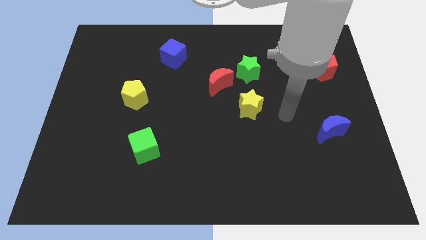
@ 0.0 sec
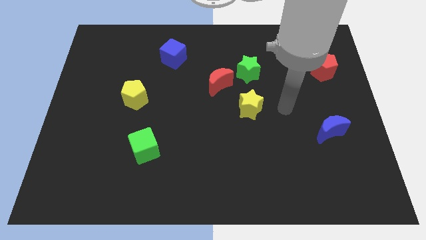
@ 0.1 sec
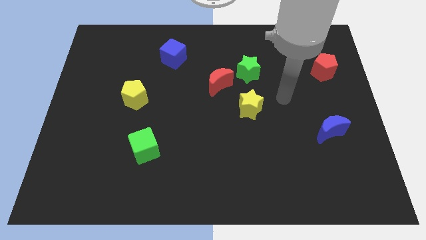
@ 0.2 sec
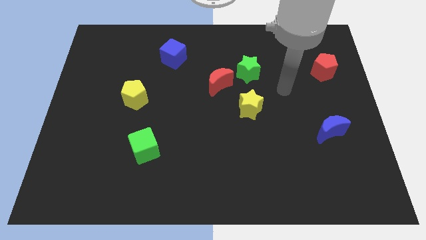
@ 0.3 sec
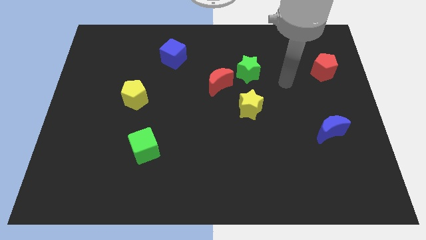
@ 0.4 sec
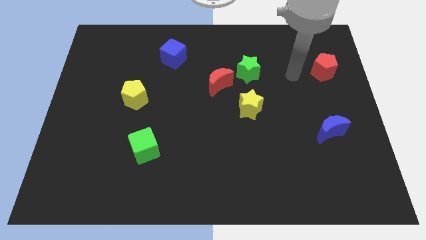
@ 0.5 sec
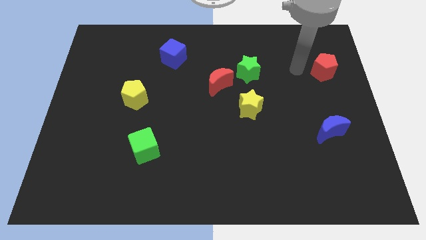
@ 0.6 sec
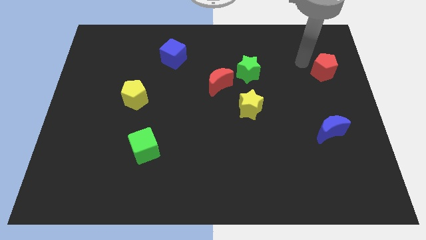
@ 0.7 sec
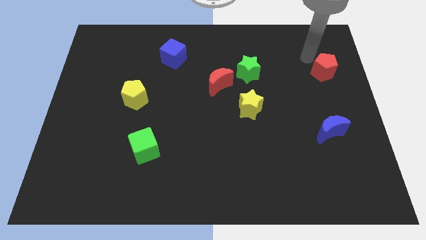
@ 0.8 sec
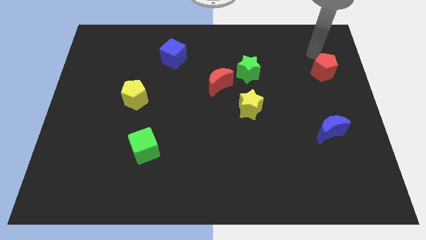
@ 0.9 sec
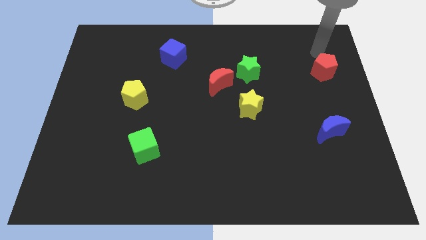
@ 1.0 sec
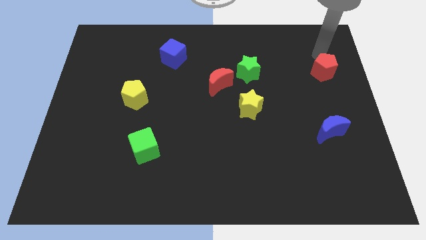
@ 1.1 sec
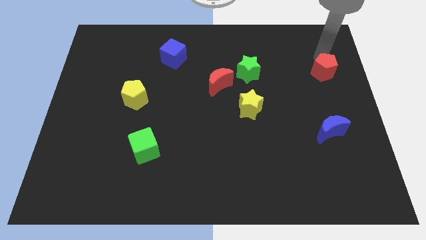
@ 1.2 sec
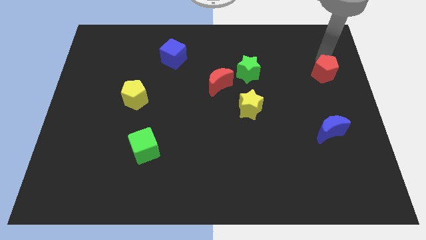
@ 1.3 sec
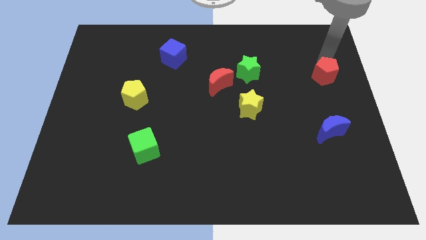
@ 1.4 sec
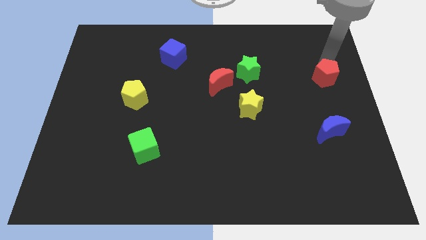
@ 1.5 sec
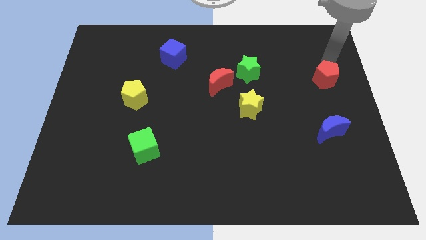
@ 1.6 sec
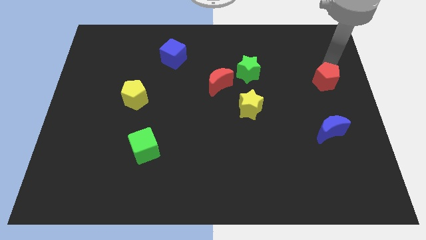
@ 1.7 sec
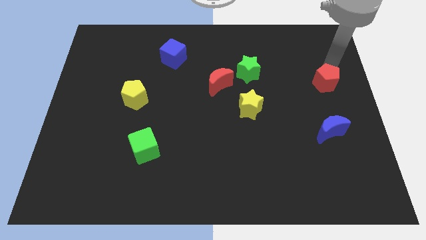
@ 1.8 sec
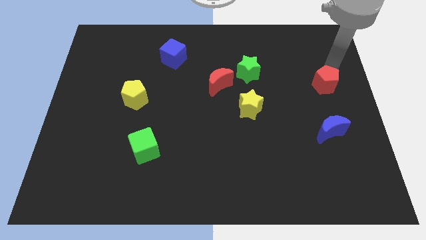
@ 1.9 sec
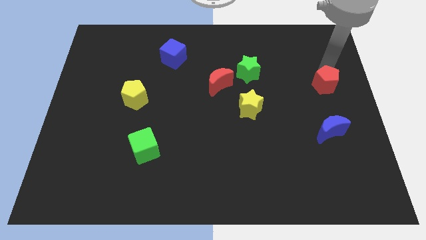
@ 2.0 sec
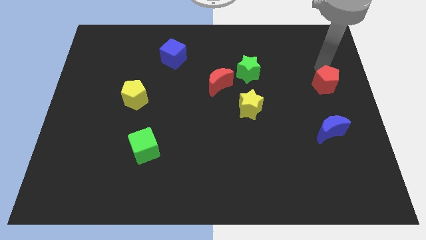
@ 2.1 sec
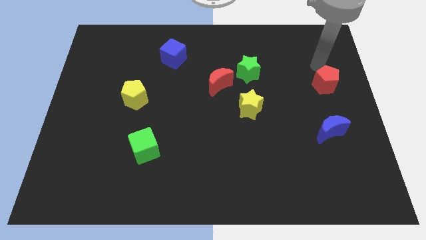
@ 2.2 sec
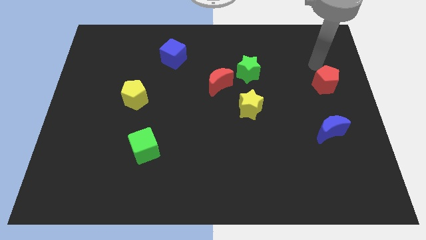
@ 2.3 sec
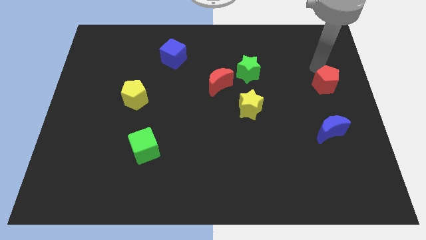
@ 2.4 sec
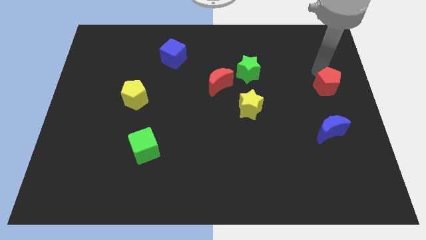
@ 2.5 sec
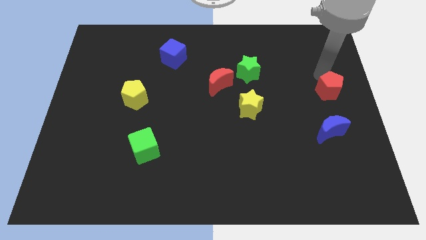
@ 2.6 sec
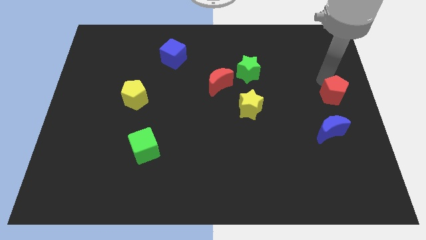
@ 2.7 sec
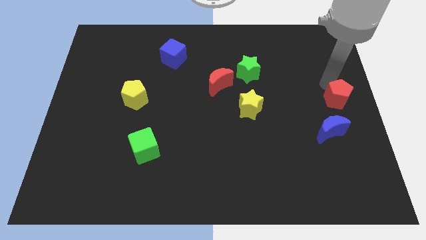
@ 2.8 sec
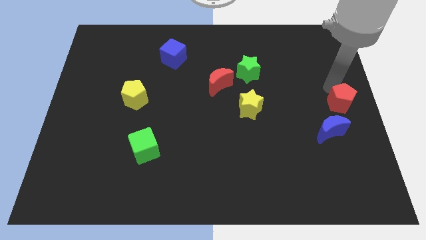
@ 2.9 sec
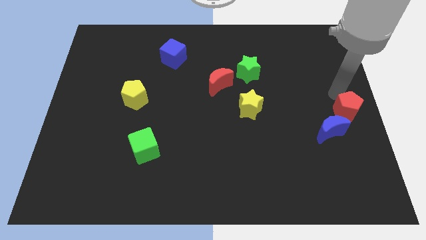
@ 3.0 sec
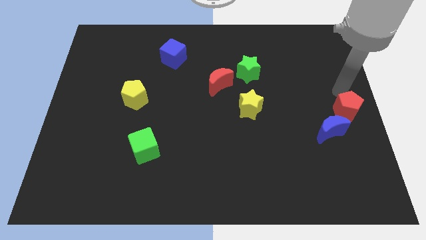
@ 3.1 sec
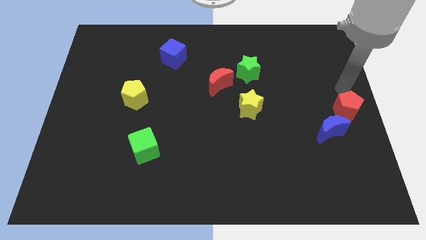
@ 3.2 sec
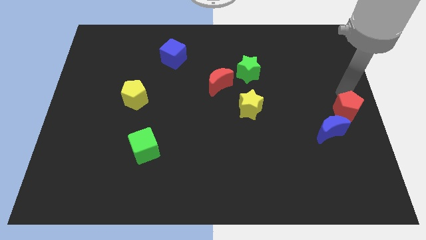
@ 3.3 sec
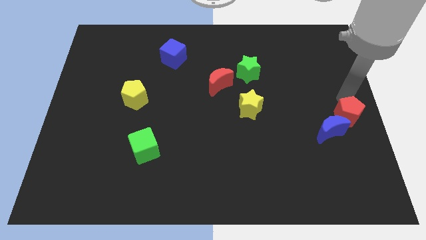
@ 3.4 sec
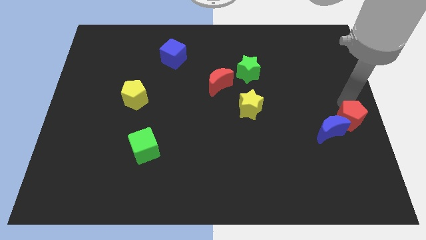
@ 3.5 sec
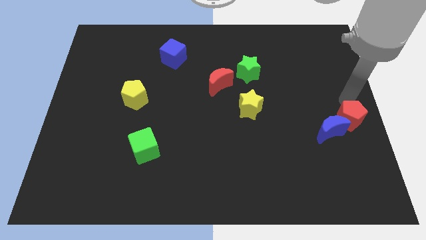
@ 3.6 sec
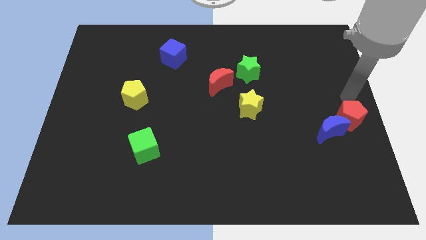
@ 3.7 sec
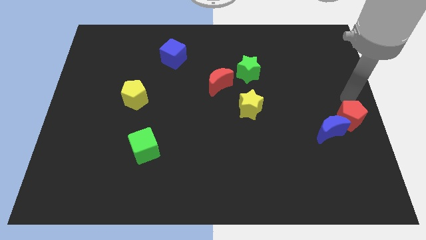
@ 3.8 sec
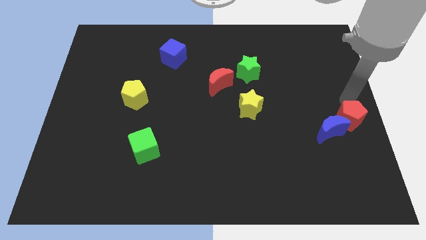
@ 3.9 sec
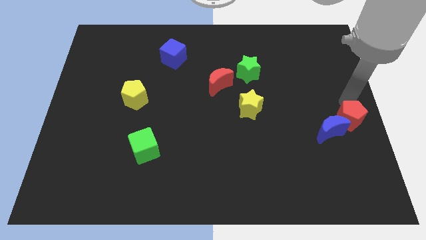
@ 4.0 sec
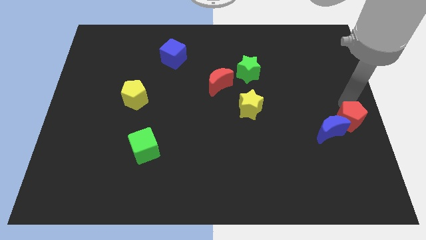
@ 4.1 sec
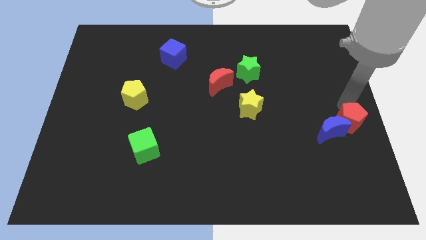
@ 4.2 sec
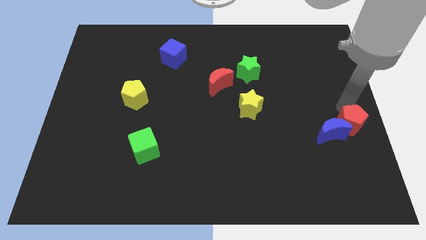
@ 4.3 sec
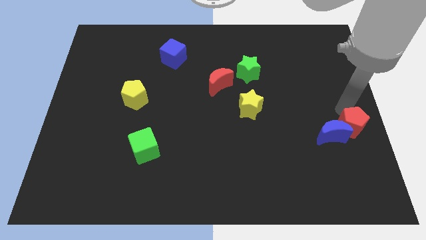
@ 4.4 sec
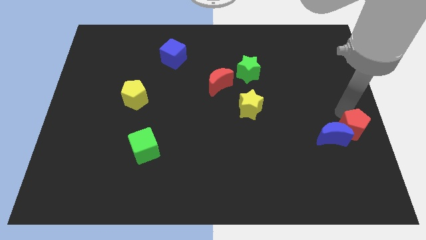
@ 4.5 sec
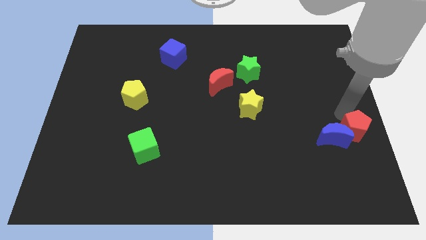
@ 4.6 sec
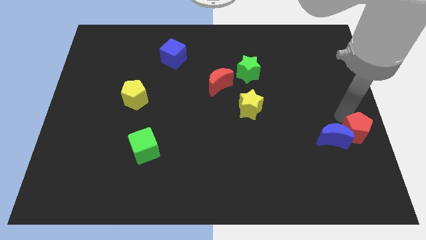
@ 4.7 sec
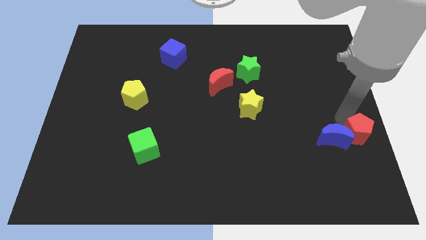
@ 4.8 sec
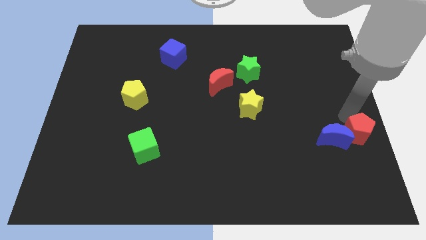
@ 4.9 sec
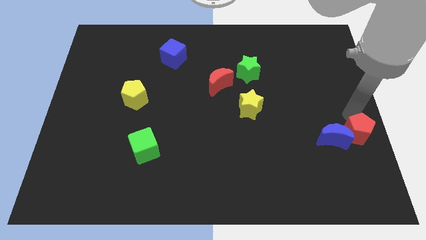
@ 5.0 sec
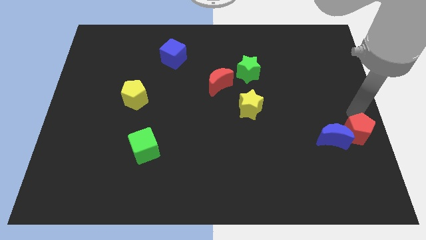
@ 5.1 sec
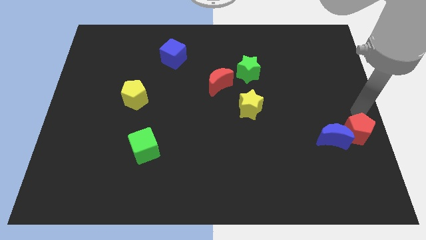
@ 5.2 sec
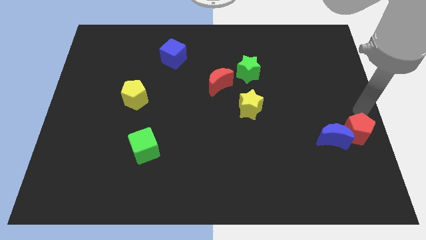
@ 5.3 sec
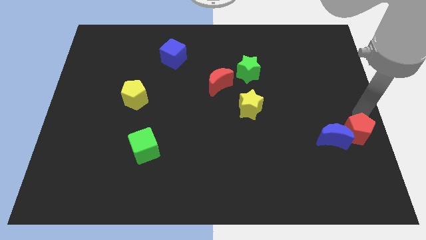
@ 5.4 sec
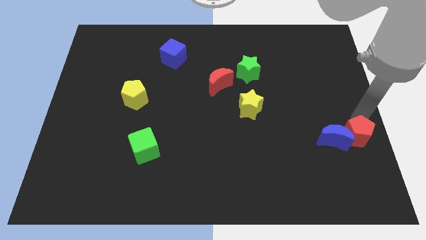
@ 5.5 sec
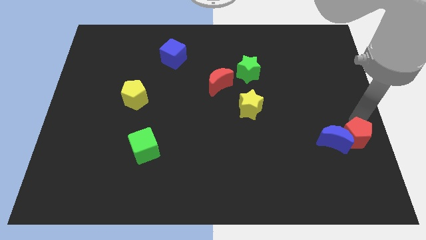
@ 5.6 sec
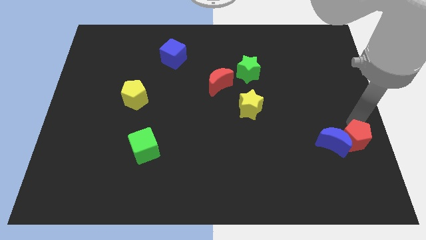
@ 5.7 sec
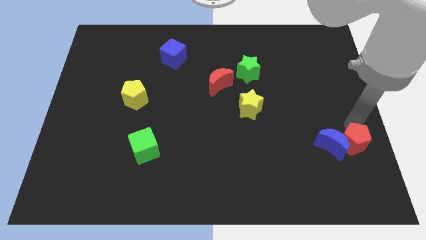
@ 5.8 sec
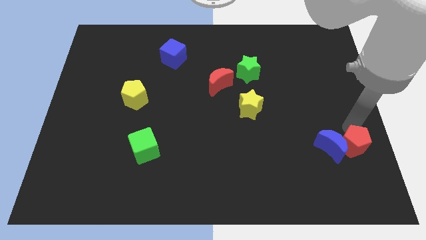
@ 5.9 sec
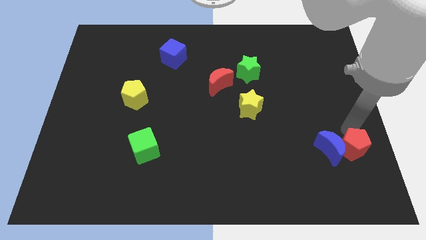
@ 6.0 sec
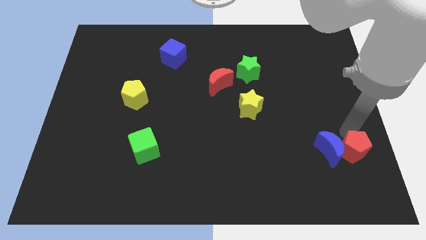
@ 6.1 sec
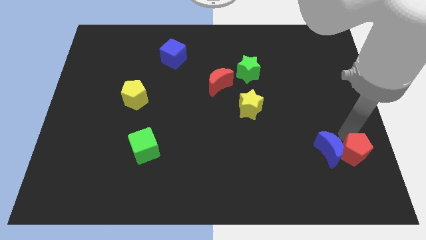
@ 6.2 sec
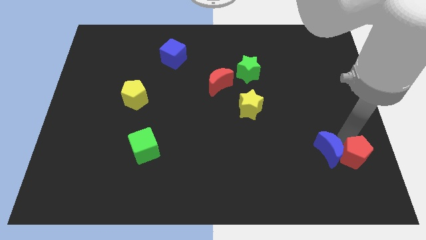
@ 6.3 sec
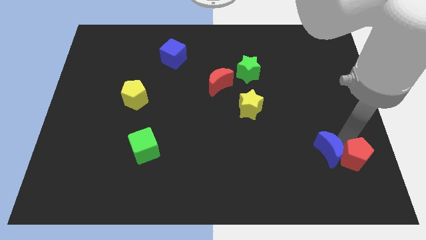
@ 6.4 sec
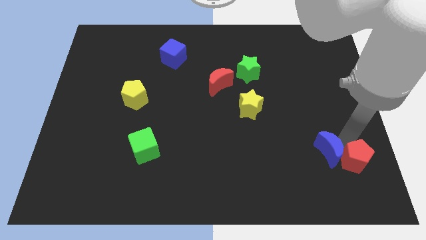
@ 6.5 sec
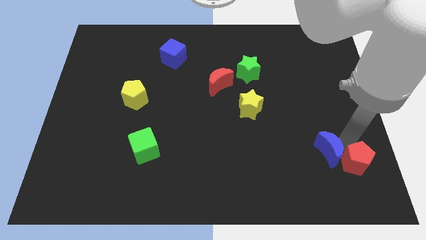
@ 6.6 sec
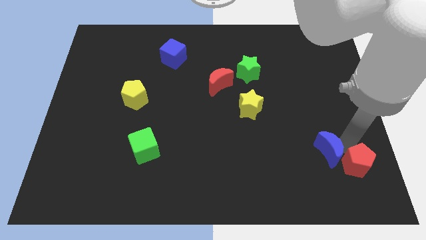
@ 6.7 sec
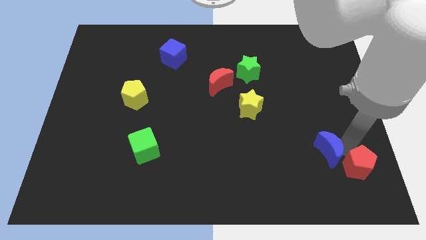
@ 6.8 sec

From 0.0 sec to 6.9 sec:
slide the red pentagon to the bottom right corner
